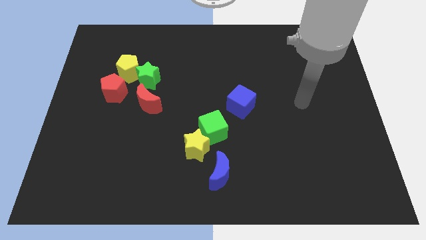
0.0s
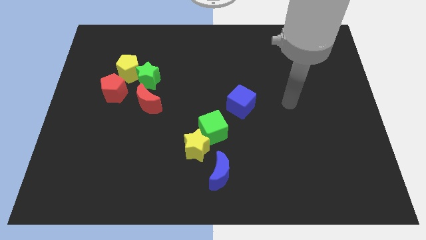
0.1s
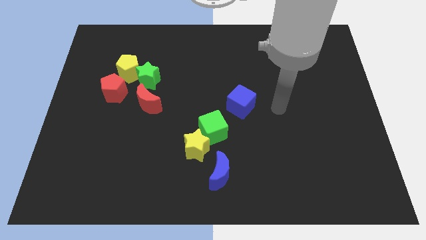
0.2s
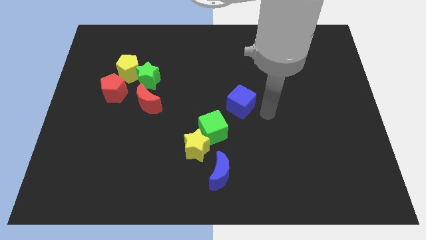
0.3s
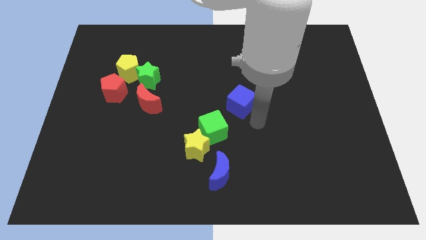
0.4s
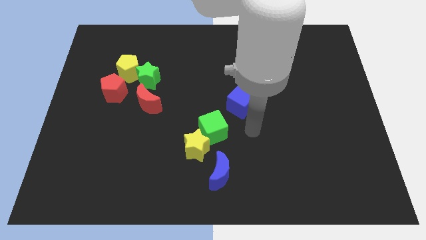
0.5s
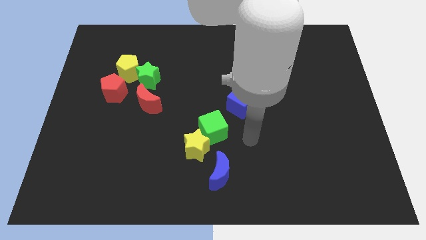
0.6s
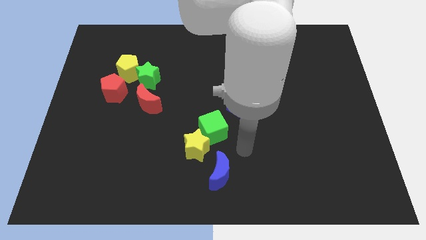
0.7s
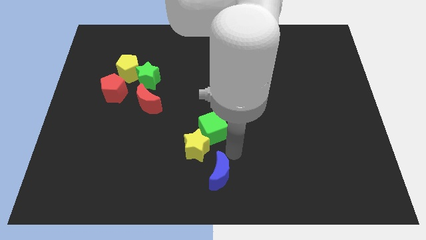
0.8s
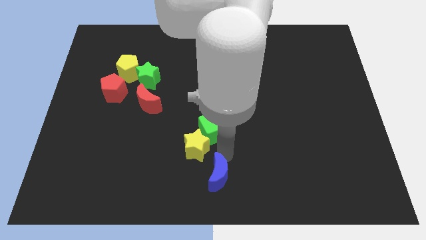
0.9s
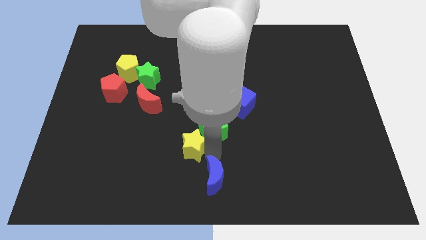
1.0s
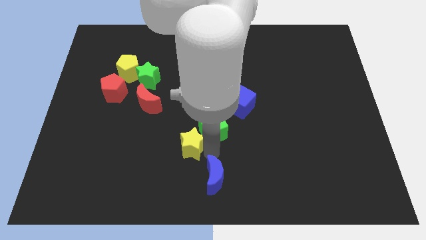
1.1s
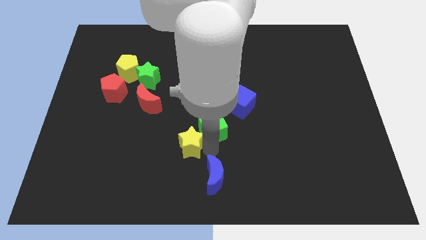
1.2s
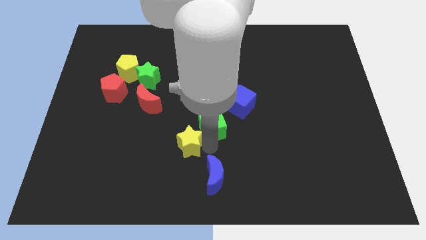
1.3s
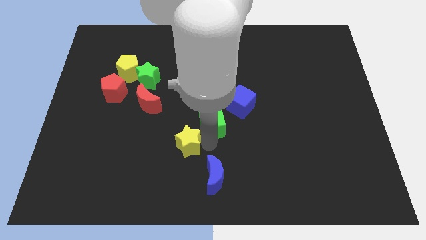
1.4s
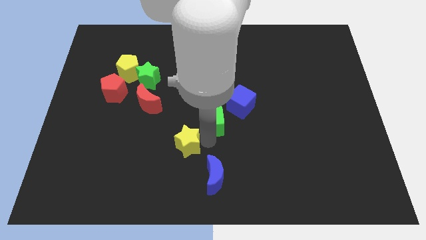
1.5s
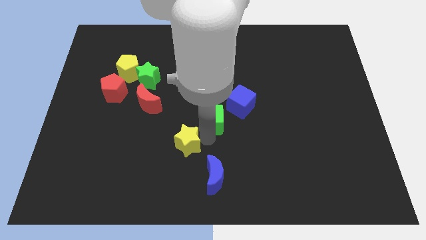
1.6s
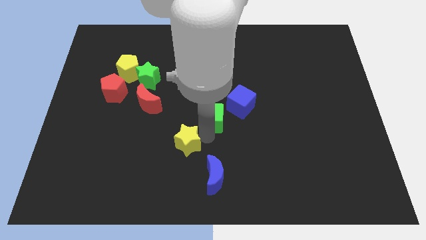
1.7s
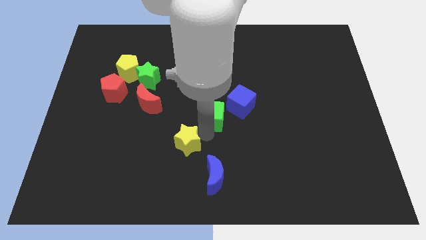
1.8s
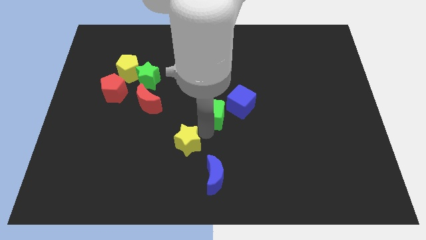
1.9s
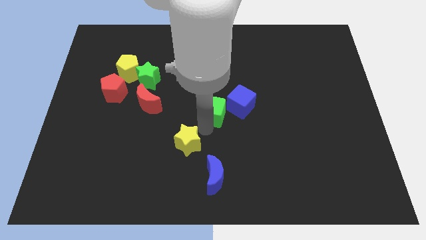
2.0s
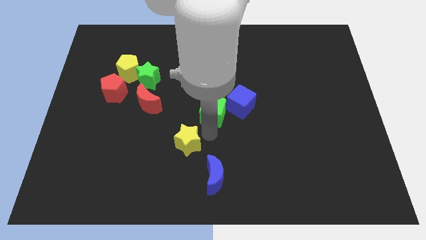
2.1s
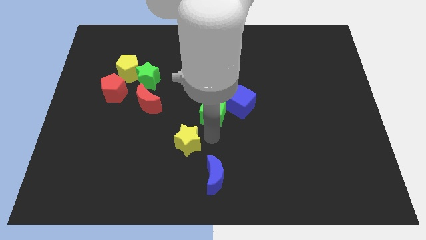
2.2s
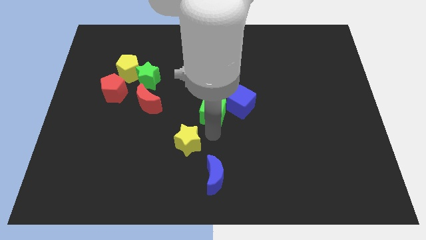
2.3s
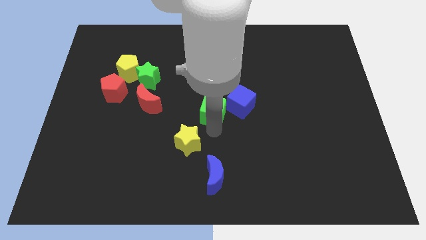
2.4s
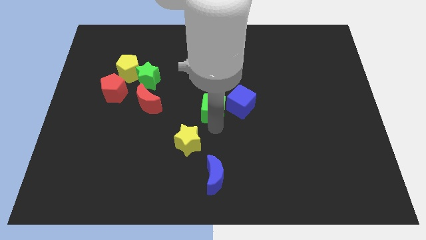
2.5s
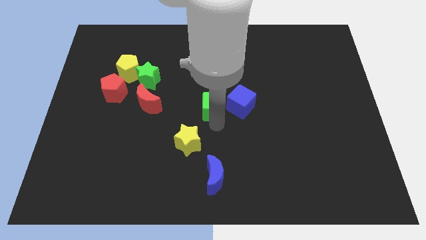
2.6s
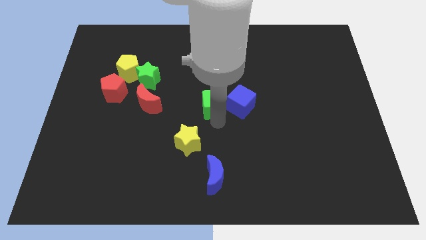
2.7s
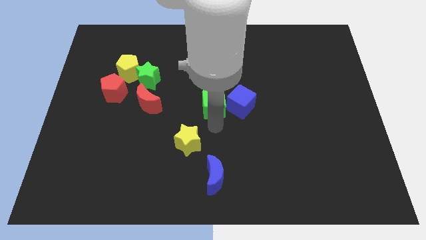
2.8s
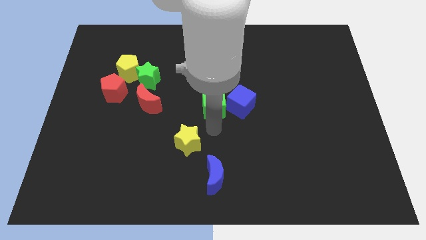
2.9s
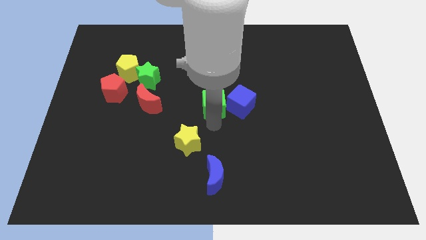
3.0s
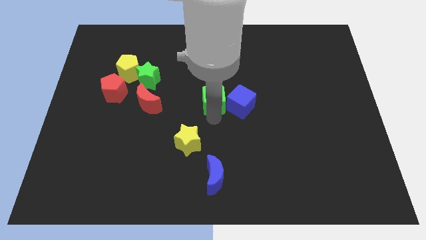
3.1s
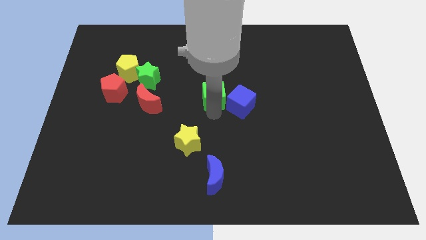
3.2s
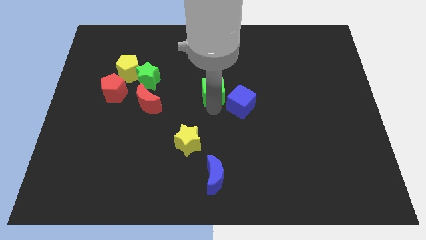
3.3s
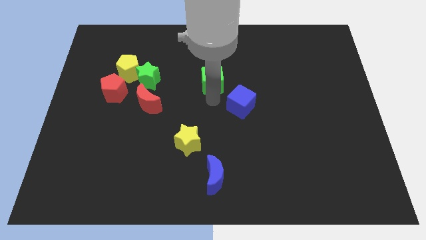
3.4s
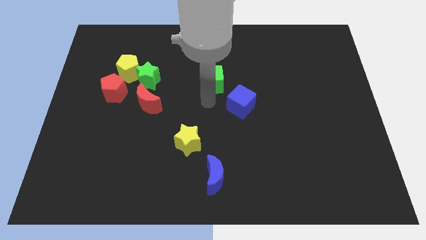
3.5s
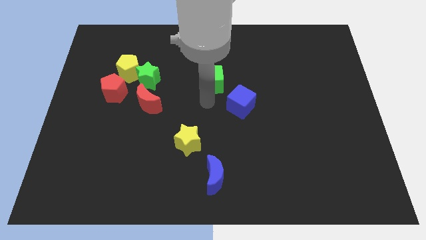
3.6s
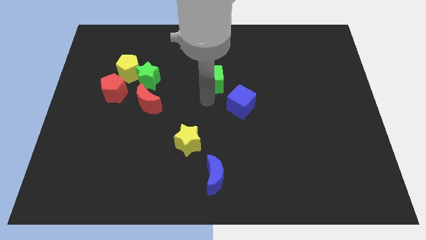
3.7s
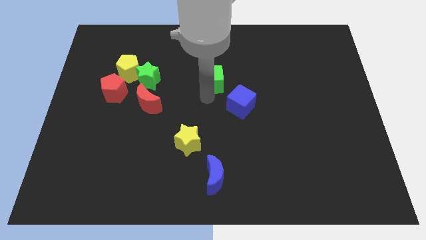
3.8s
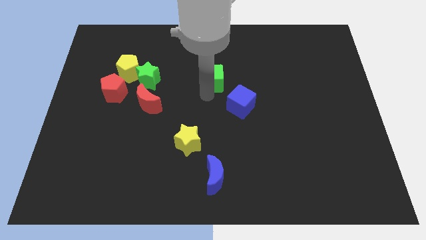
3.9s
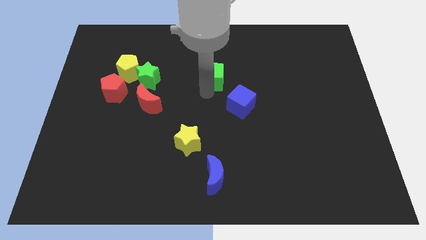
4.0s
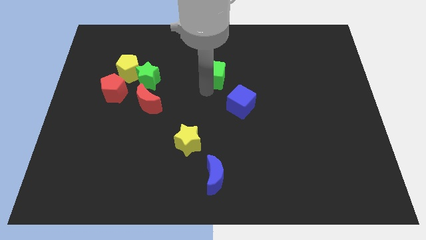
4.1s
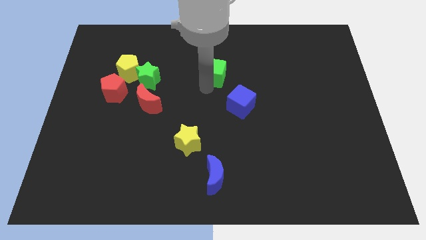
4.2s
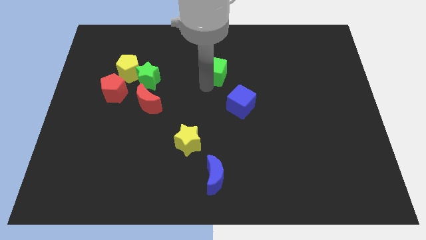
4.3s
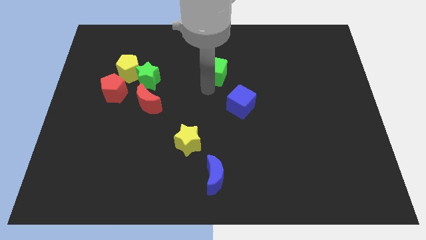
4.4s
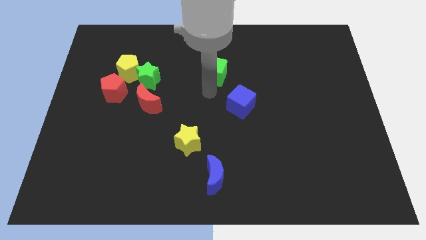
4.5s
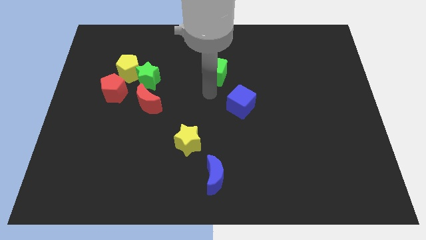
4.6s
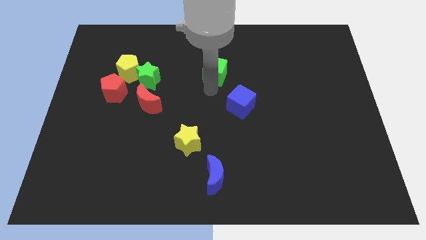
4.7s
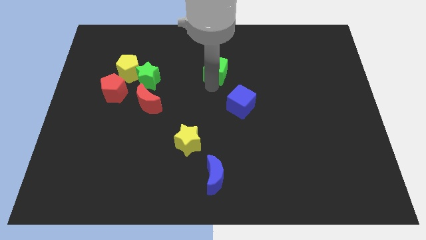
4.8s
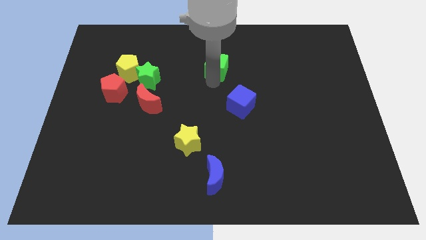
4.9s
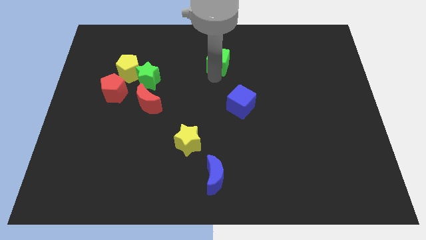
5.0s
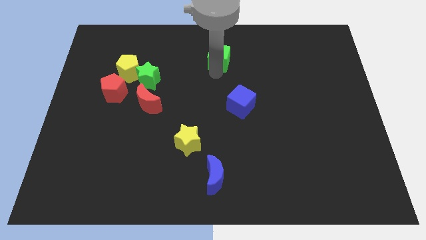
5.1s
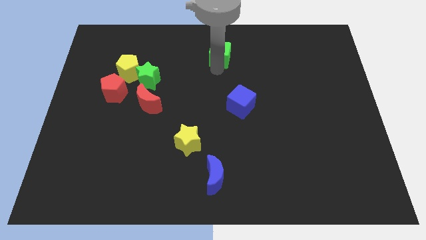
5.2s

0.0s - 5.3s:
slide the green cube to the top

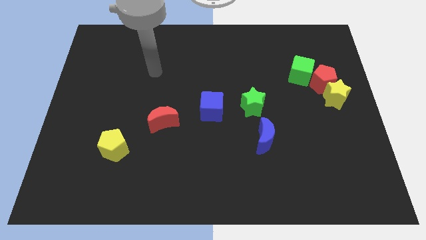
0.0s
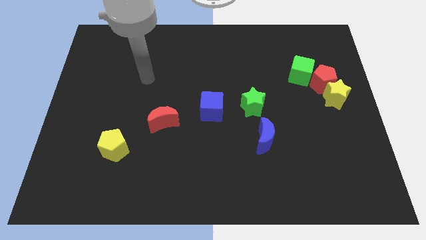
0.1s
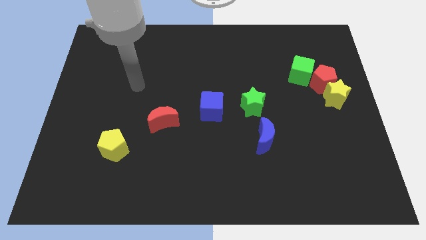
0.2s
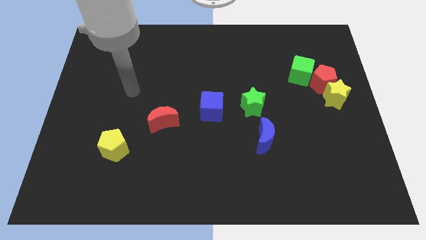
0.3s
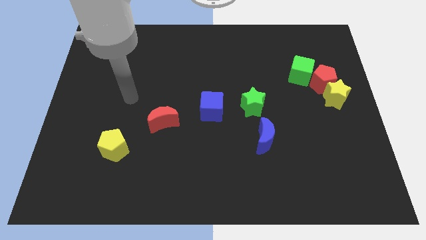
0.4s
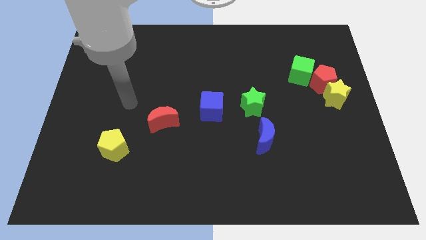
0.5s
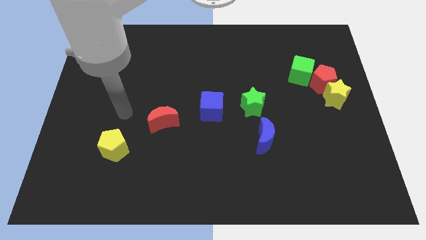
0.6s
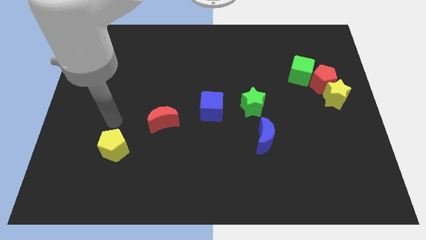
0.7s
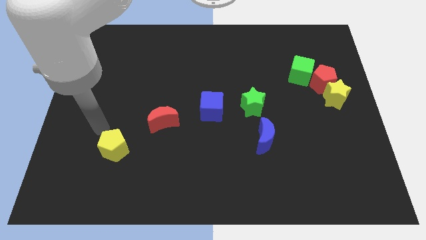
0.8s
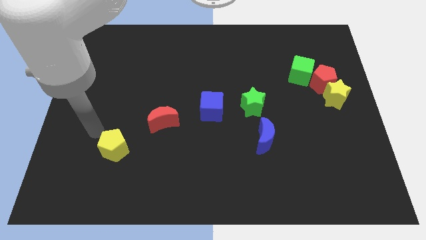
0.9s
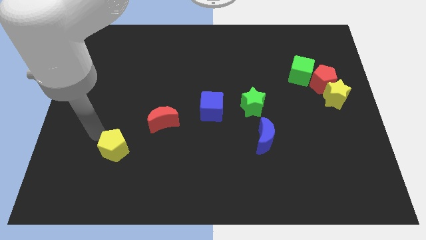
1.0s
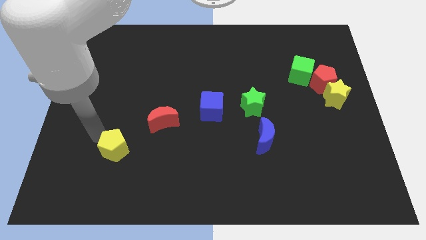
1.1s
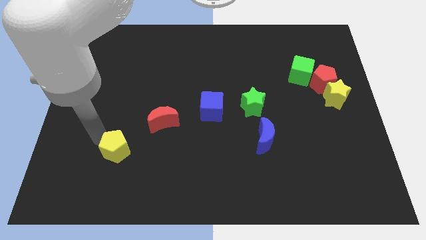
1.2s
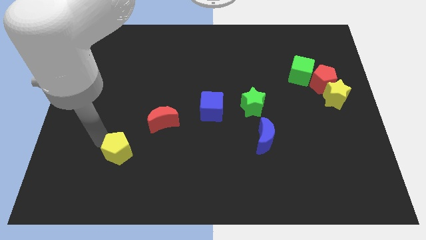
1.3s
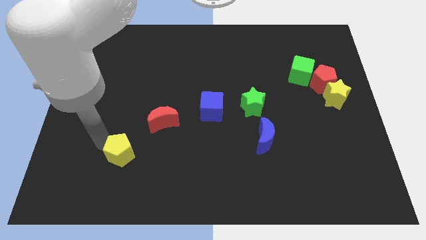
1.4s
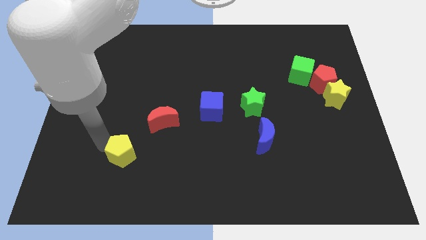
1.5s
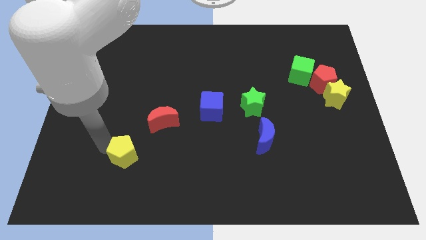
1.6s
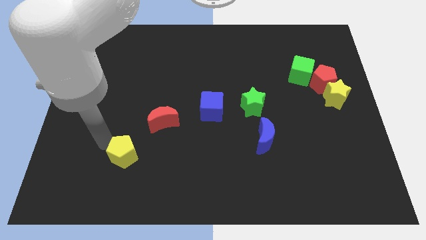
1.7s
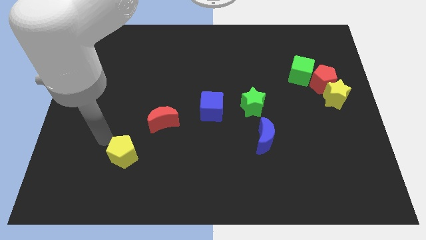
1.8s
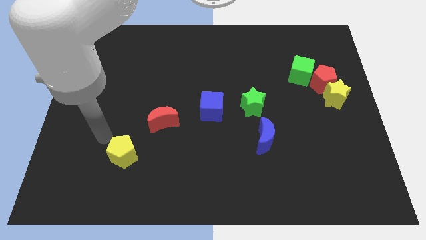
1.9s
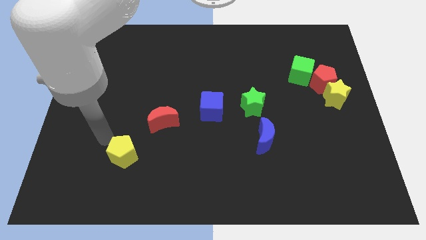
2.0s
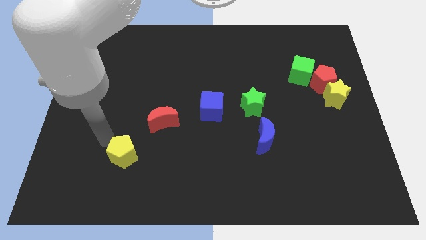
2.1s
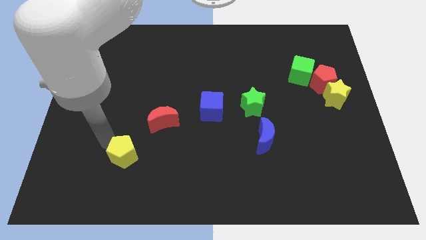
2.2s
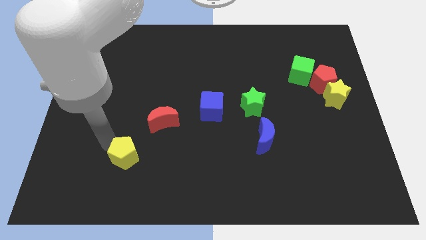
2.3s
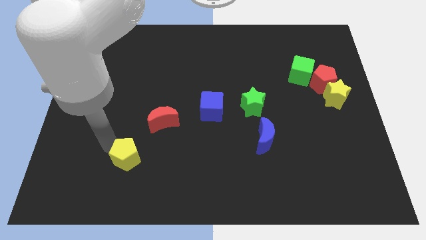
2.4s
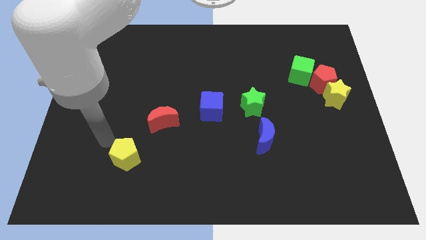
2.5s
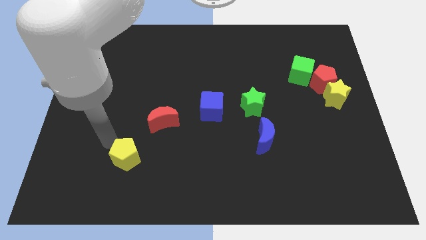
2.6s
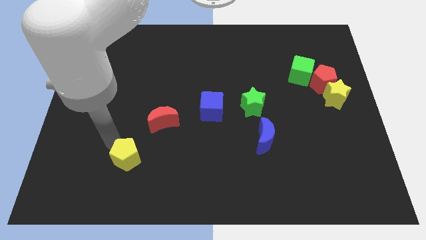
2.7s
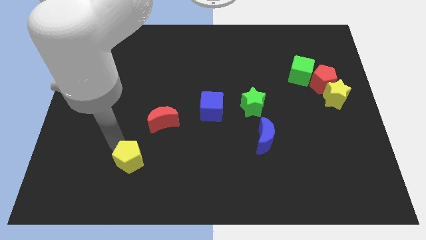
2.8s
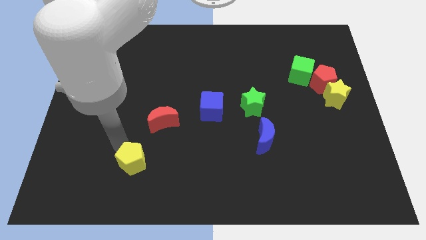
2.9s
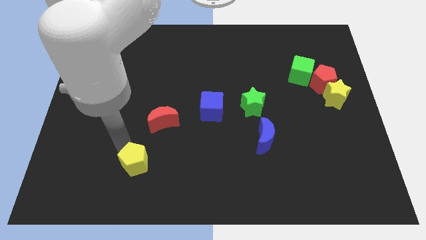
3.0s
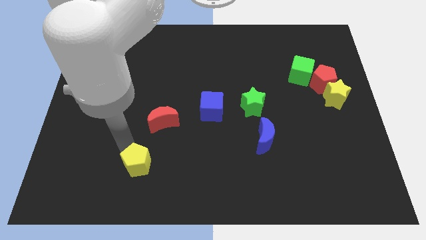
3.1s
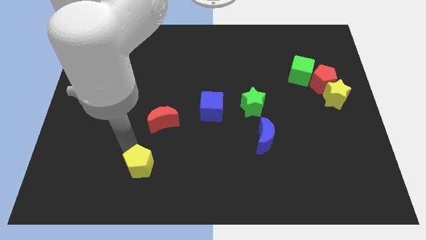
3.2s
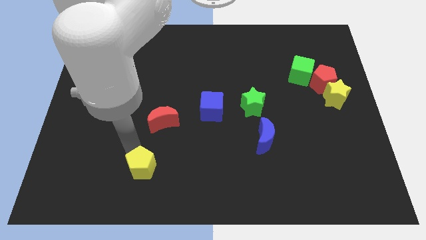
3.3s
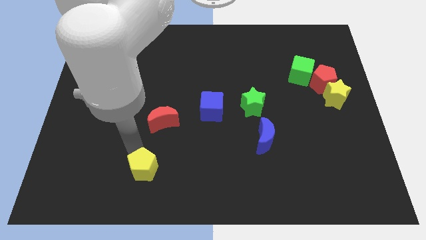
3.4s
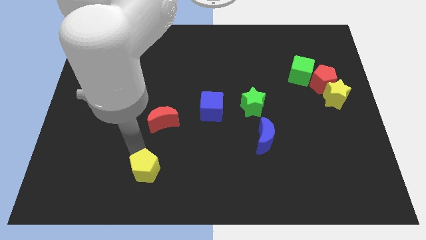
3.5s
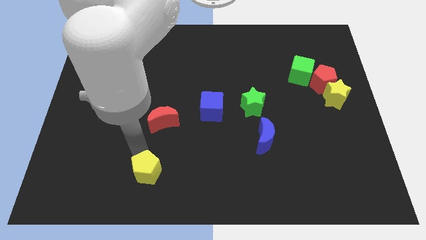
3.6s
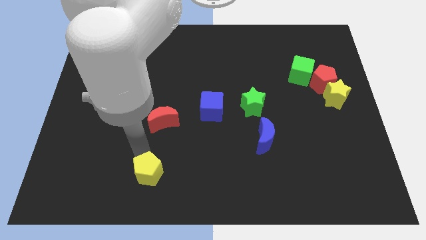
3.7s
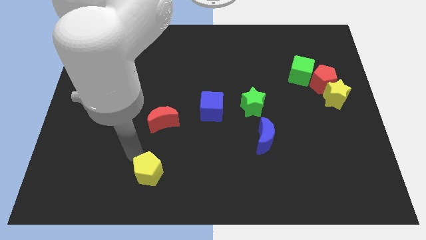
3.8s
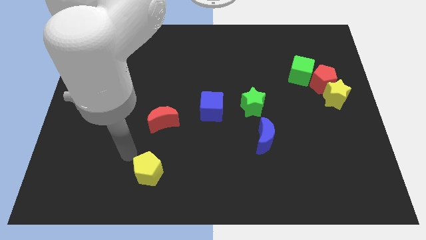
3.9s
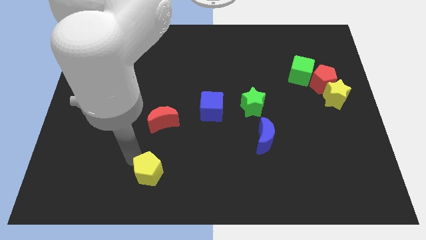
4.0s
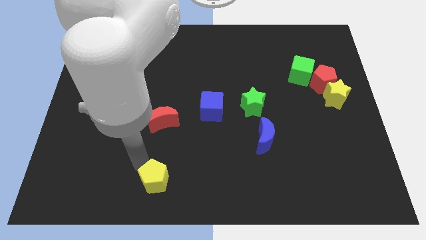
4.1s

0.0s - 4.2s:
put the yellow pentagon to the bottom
